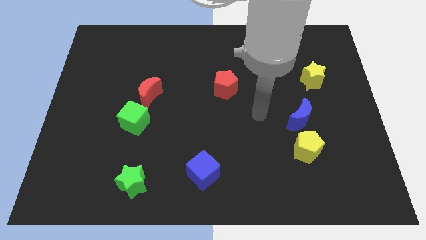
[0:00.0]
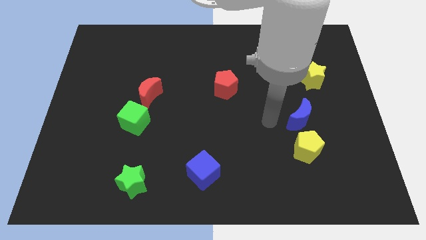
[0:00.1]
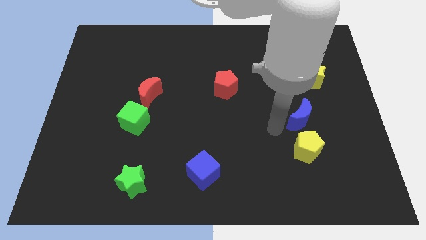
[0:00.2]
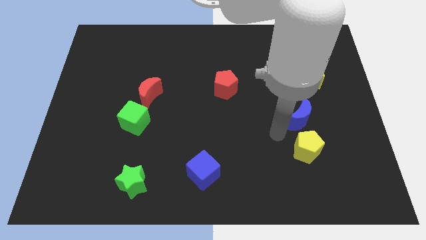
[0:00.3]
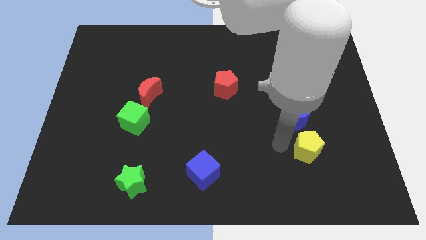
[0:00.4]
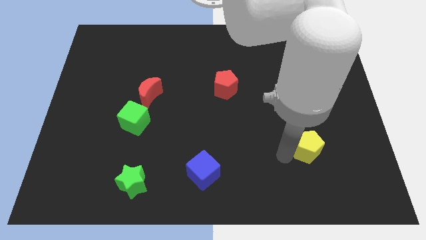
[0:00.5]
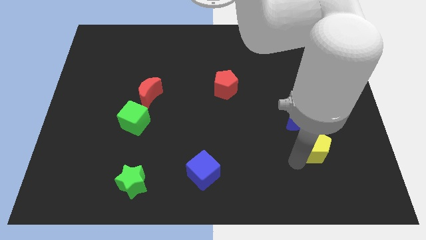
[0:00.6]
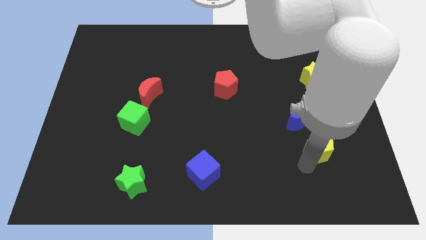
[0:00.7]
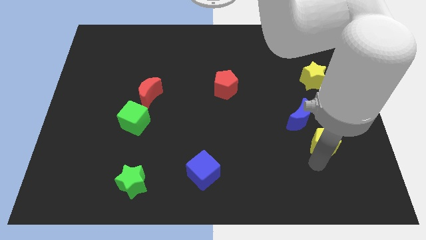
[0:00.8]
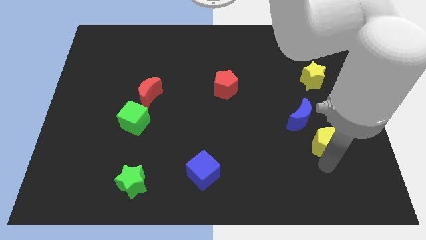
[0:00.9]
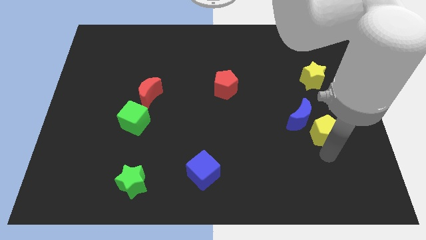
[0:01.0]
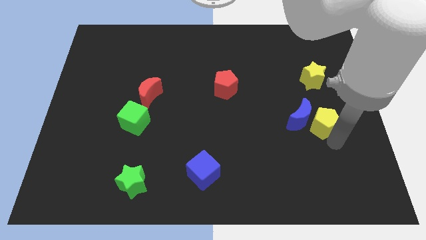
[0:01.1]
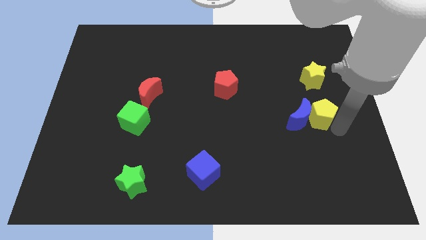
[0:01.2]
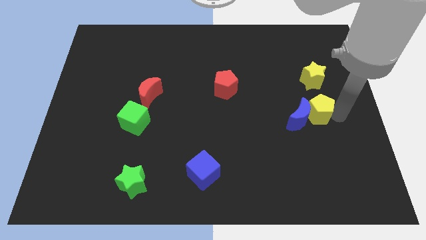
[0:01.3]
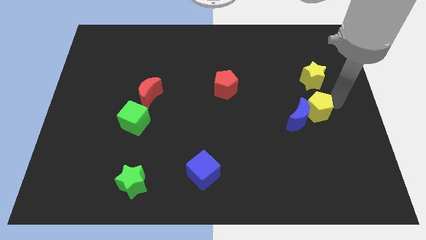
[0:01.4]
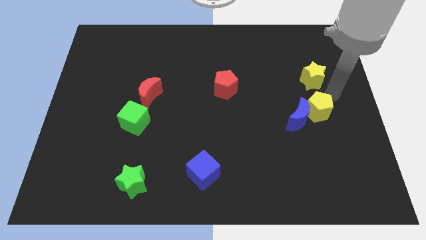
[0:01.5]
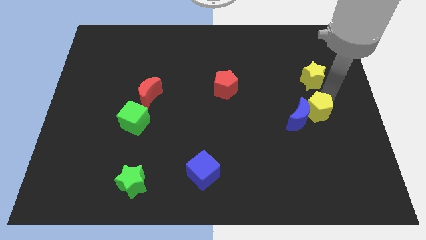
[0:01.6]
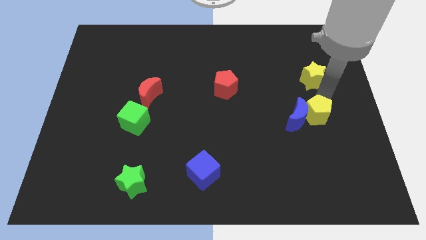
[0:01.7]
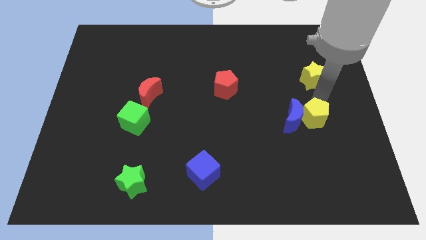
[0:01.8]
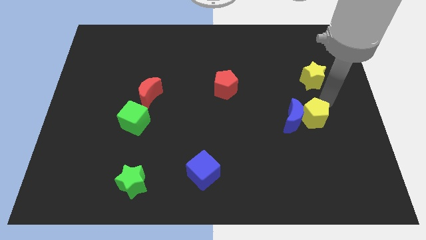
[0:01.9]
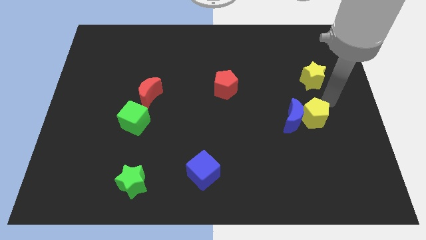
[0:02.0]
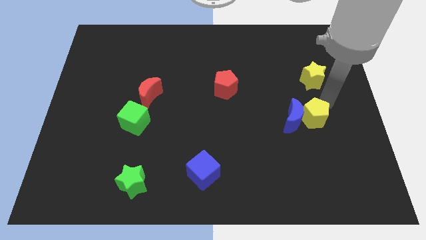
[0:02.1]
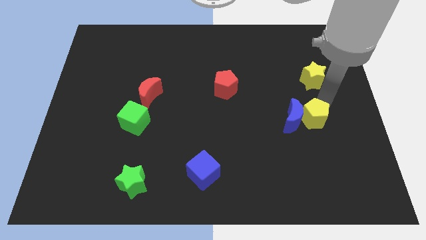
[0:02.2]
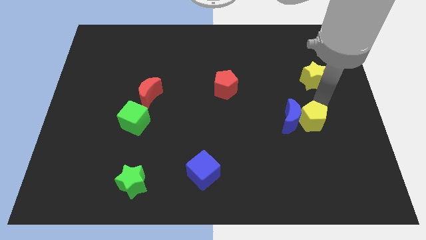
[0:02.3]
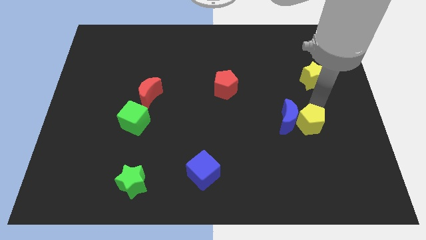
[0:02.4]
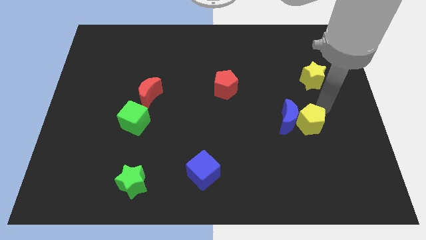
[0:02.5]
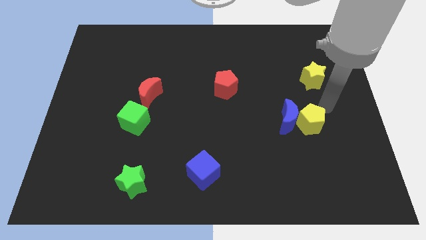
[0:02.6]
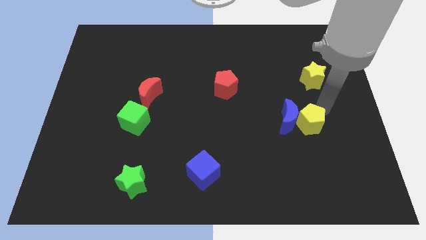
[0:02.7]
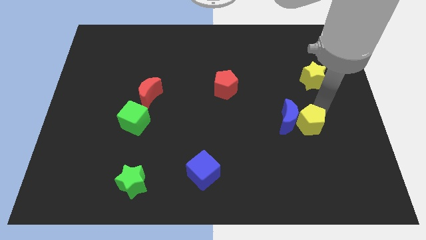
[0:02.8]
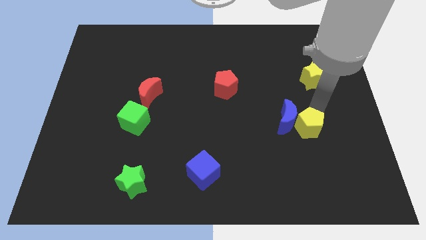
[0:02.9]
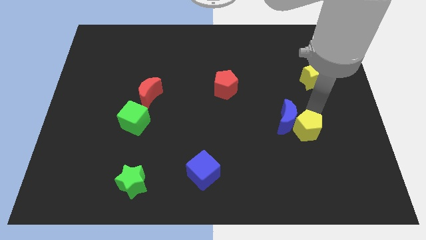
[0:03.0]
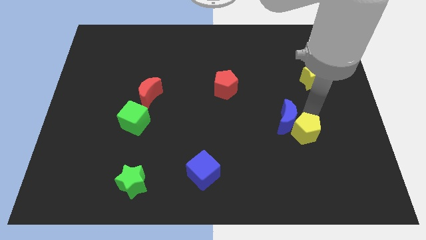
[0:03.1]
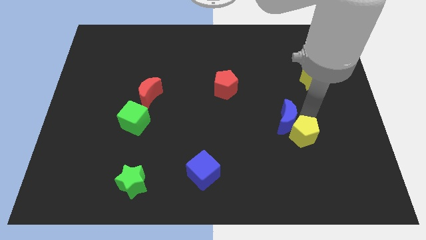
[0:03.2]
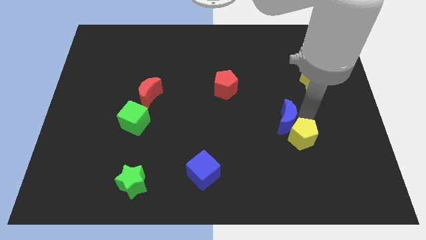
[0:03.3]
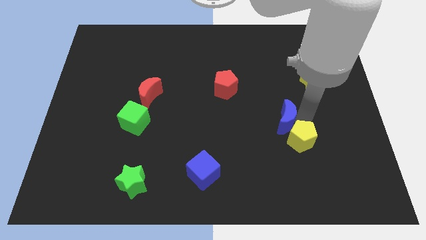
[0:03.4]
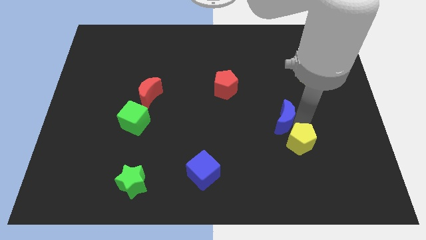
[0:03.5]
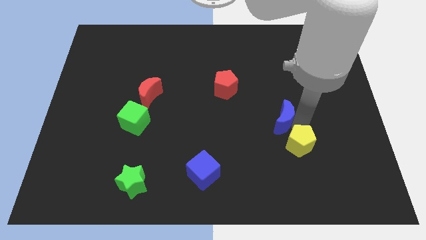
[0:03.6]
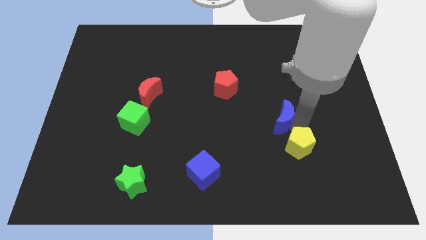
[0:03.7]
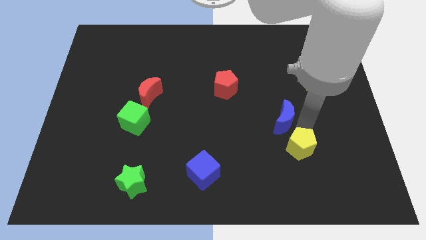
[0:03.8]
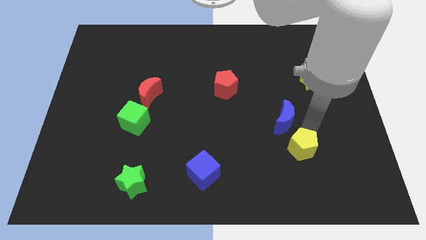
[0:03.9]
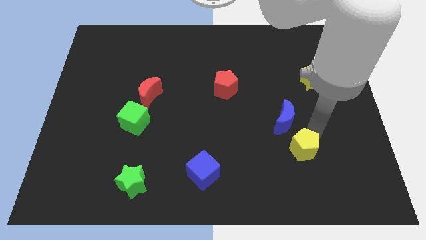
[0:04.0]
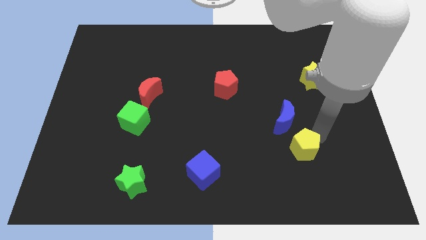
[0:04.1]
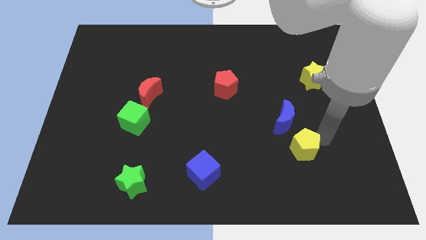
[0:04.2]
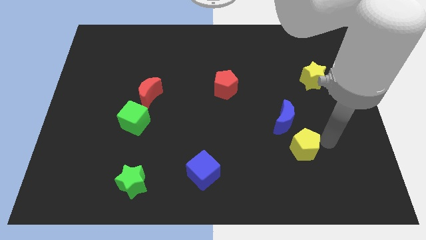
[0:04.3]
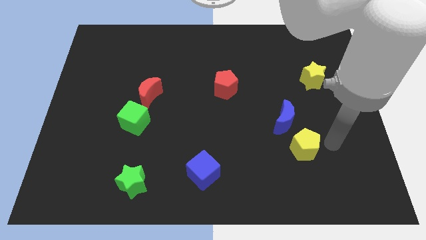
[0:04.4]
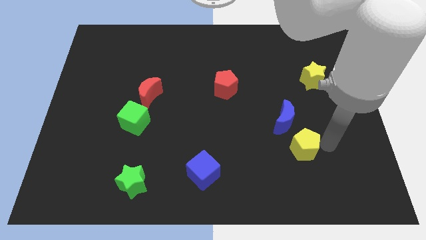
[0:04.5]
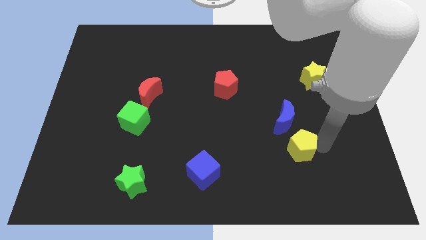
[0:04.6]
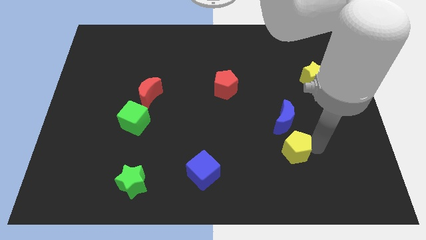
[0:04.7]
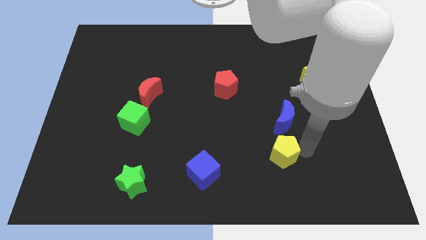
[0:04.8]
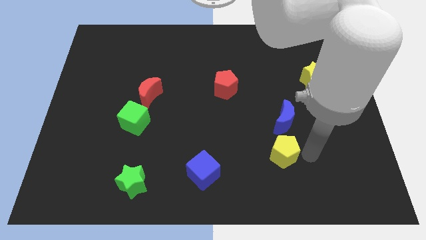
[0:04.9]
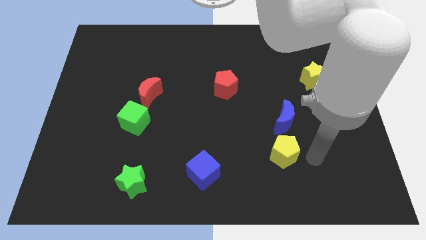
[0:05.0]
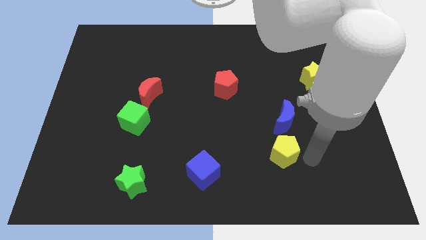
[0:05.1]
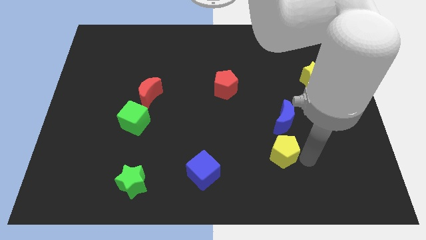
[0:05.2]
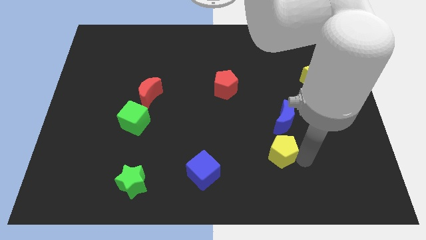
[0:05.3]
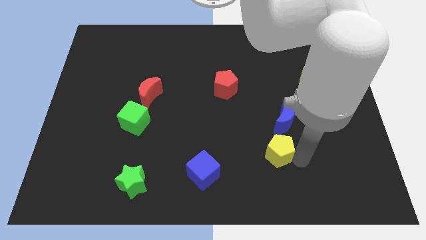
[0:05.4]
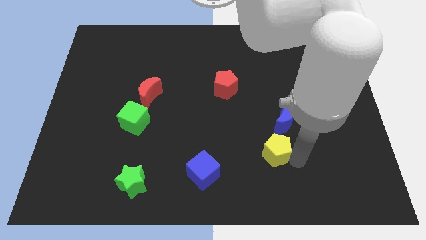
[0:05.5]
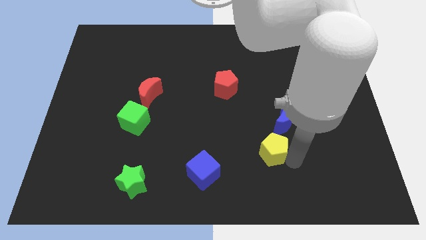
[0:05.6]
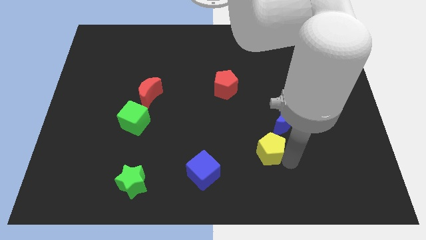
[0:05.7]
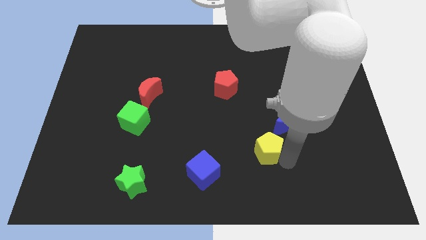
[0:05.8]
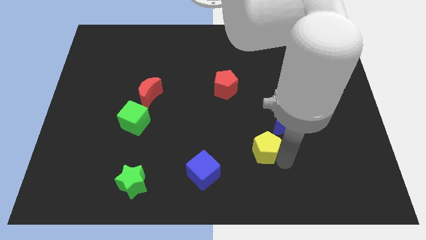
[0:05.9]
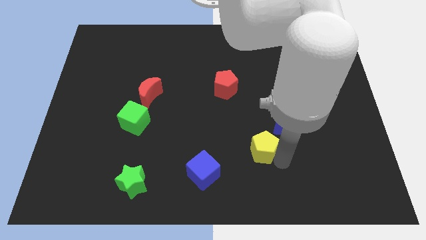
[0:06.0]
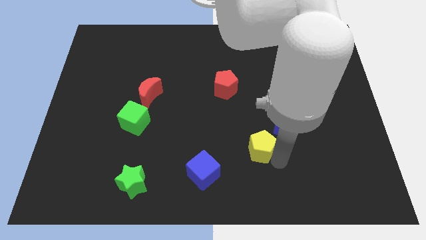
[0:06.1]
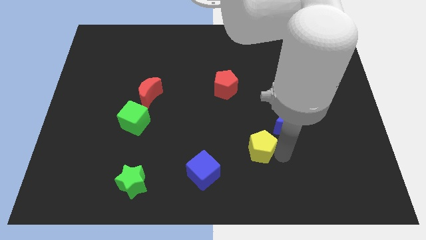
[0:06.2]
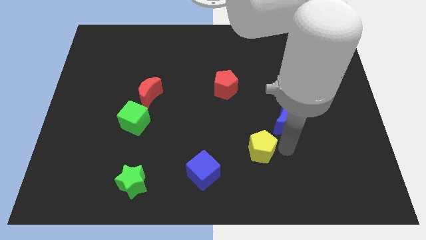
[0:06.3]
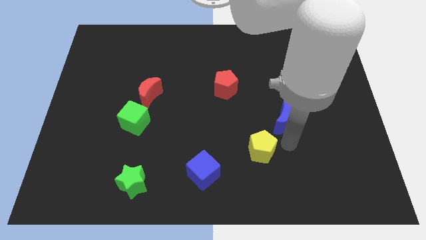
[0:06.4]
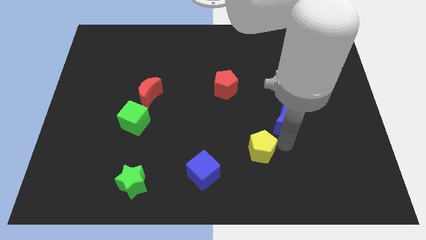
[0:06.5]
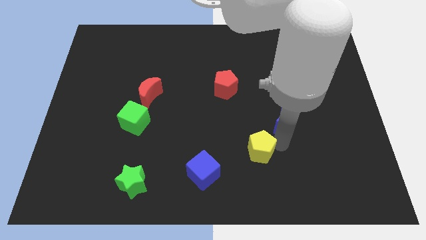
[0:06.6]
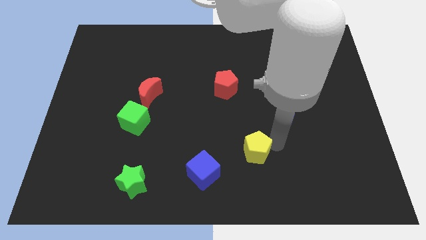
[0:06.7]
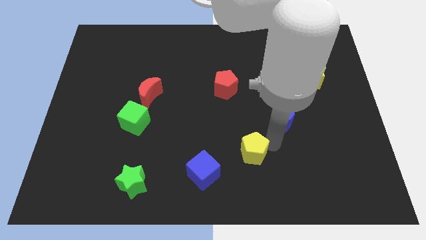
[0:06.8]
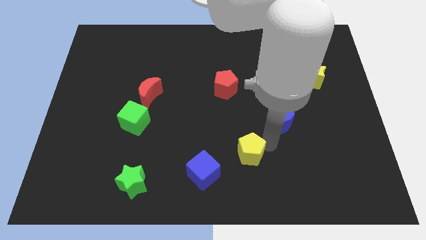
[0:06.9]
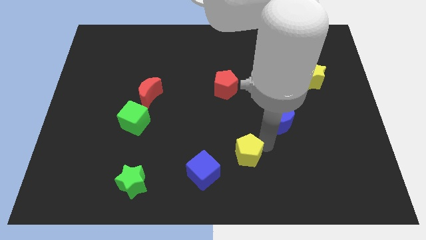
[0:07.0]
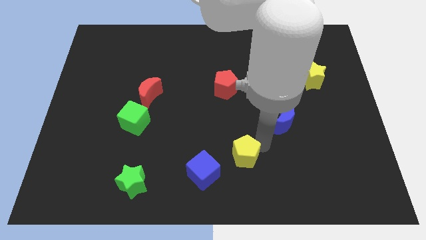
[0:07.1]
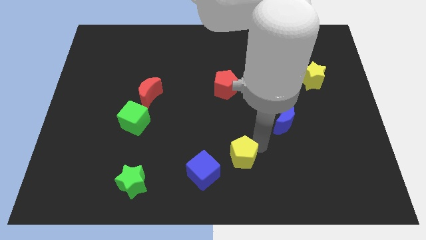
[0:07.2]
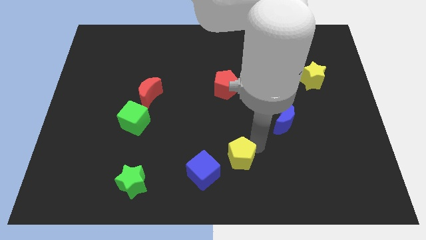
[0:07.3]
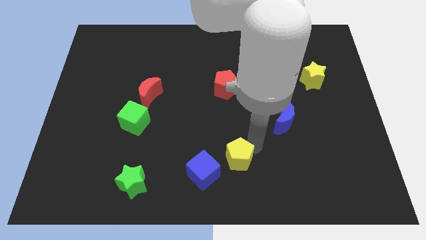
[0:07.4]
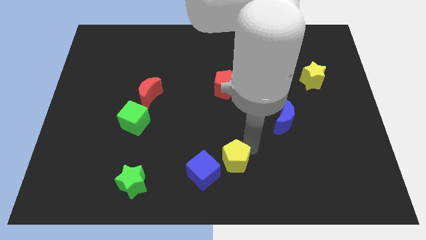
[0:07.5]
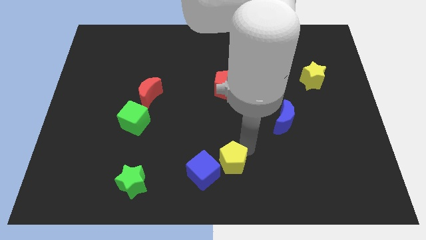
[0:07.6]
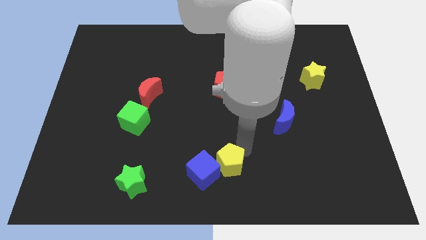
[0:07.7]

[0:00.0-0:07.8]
slide the yellow pentagon next to the blue cube
